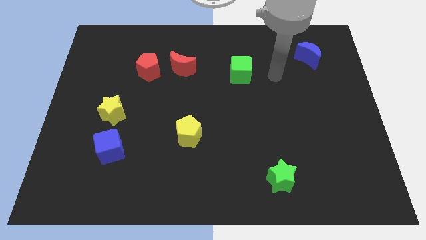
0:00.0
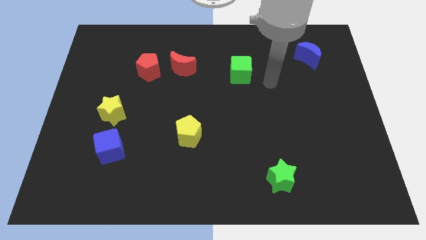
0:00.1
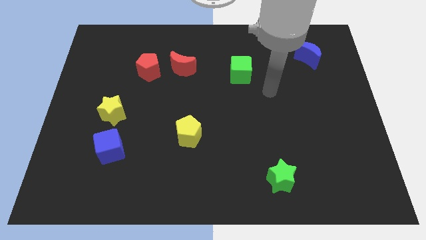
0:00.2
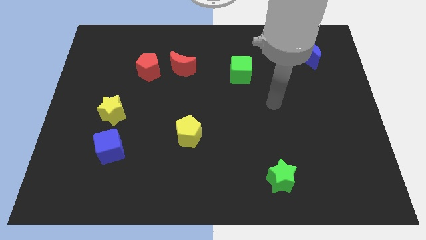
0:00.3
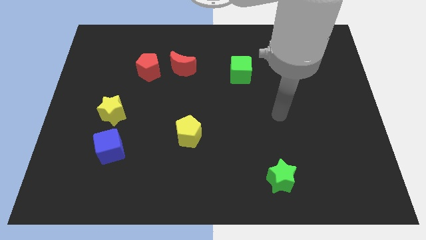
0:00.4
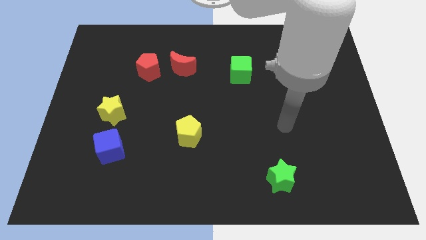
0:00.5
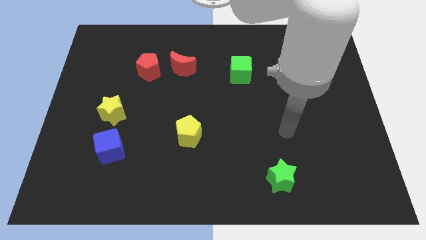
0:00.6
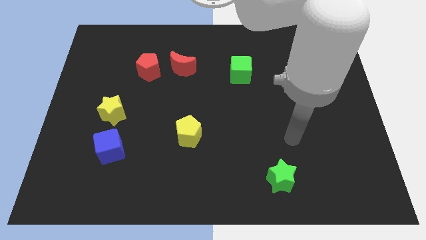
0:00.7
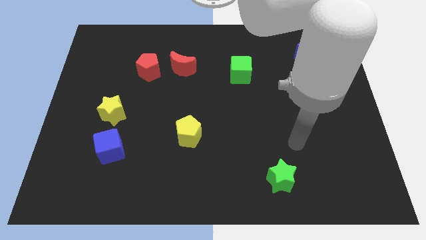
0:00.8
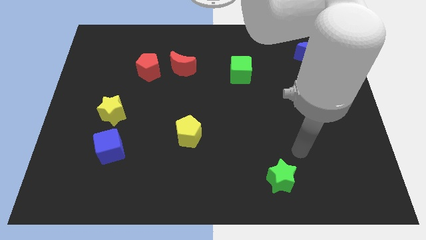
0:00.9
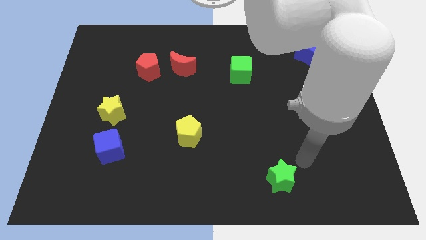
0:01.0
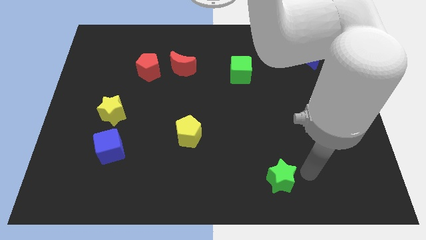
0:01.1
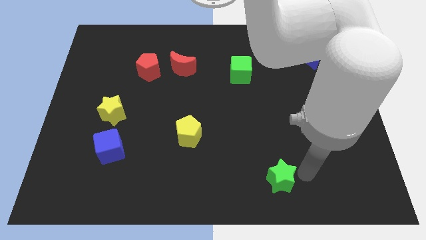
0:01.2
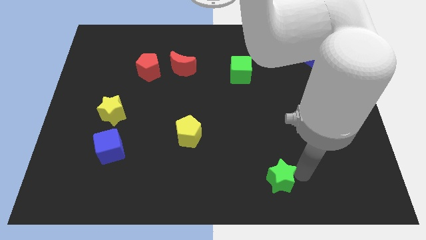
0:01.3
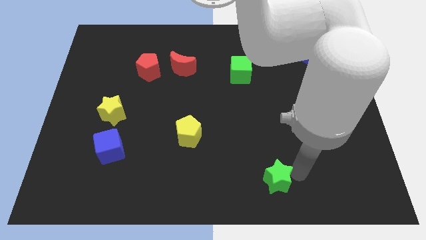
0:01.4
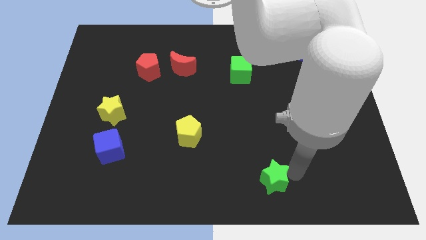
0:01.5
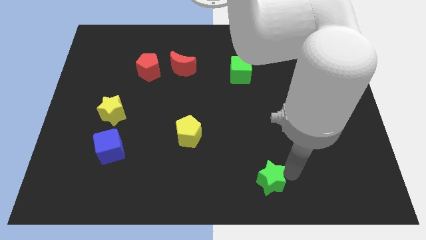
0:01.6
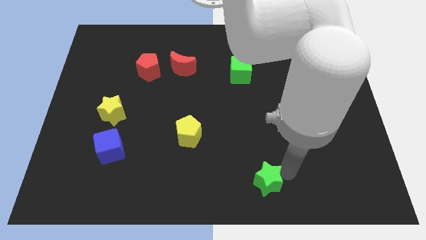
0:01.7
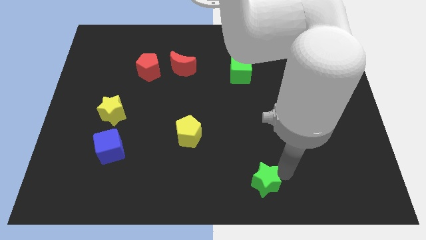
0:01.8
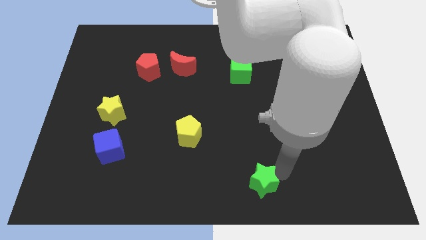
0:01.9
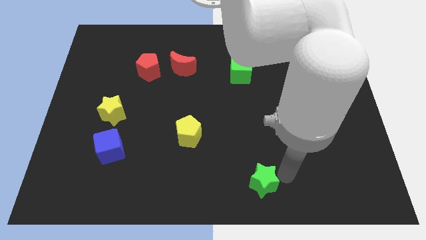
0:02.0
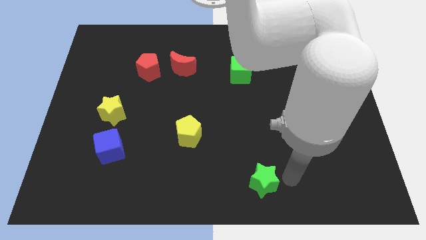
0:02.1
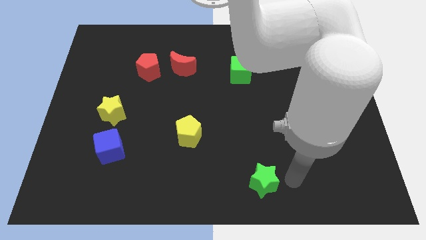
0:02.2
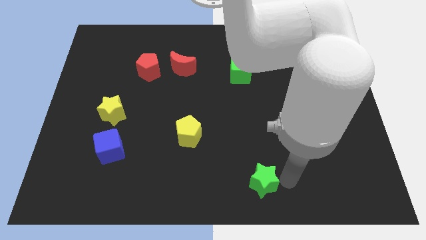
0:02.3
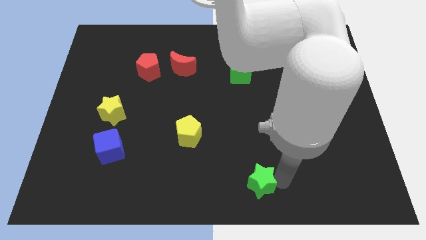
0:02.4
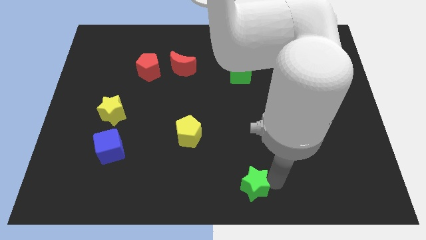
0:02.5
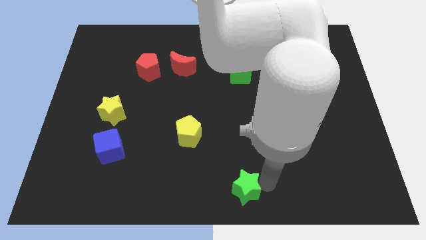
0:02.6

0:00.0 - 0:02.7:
push the green star a bit left

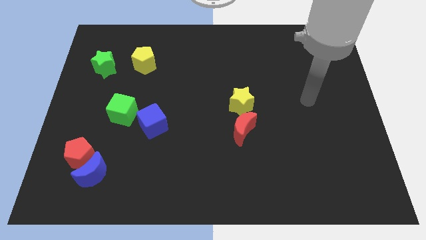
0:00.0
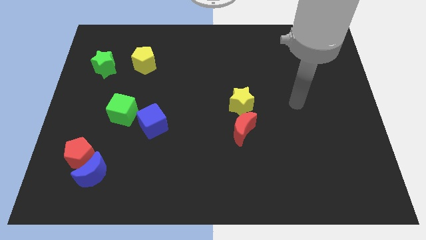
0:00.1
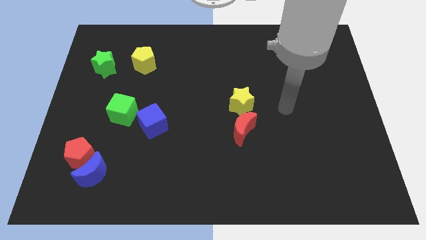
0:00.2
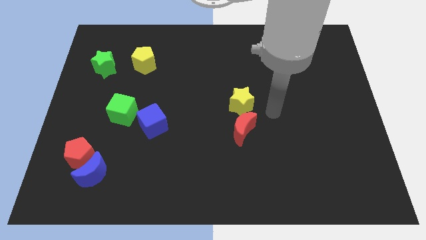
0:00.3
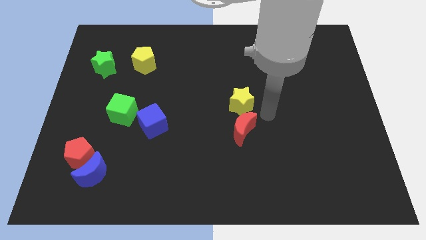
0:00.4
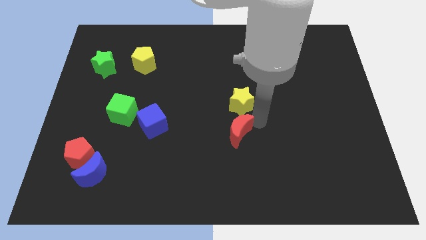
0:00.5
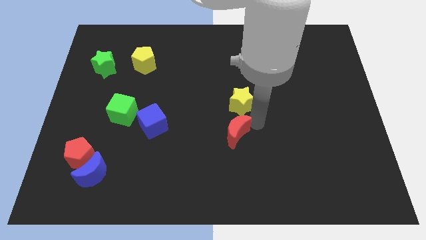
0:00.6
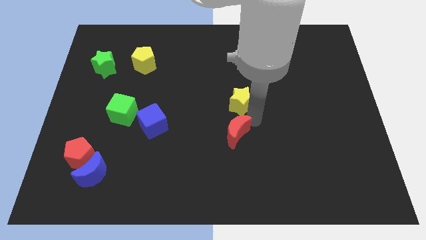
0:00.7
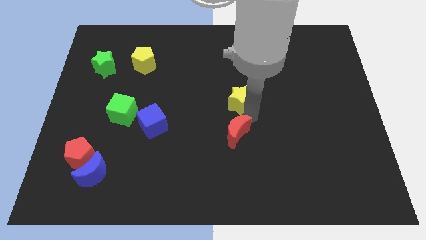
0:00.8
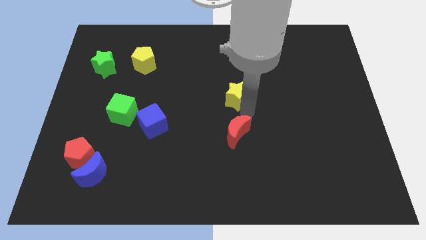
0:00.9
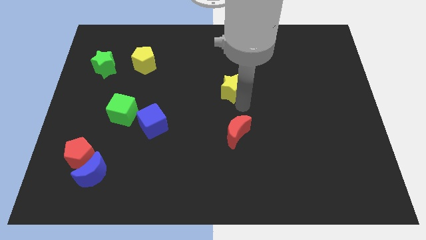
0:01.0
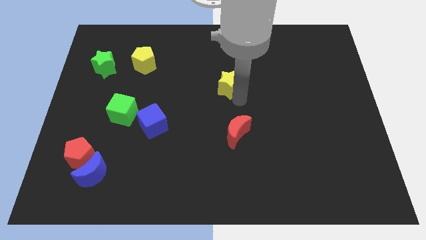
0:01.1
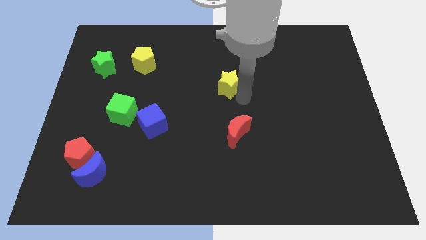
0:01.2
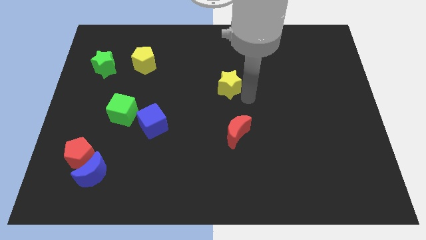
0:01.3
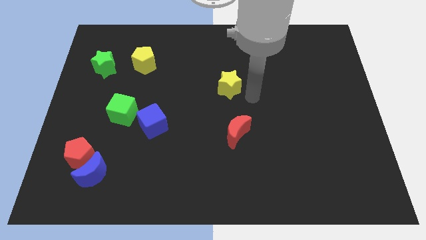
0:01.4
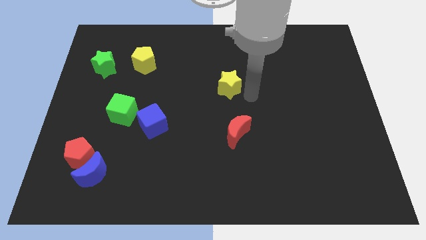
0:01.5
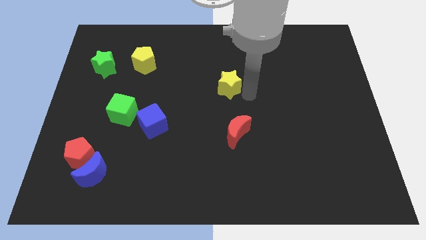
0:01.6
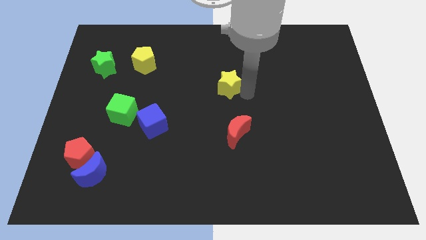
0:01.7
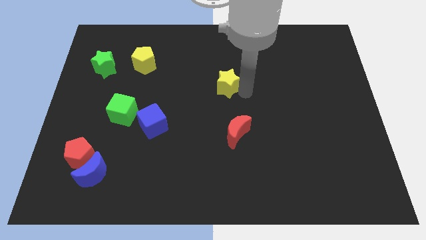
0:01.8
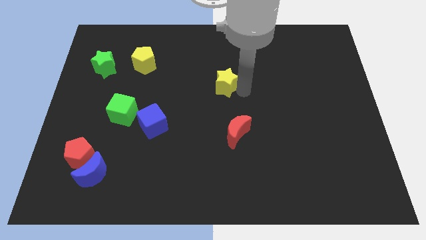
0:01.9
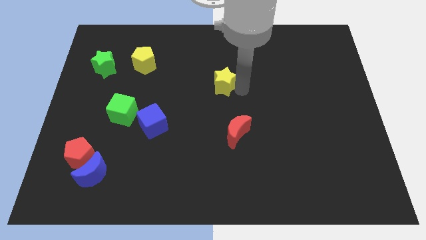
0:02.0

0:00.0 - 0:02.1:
slide the yellow star slightly diagonally upwards and left

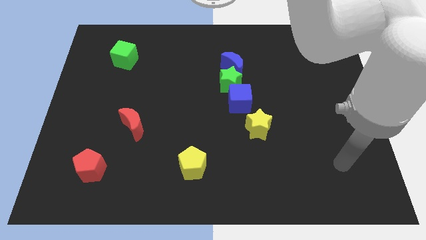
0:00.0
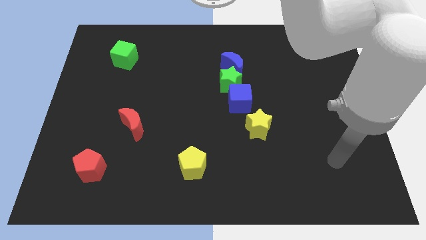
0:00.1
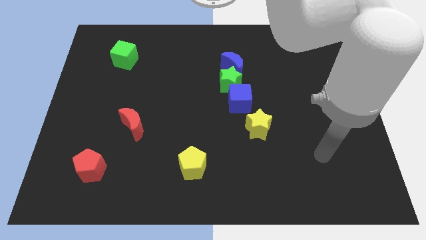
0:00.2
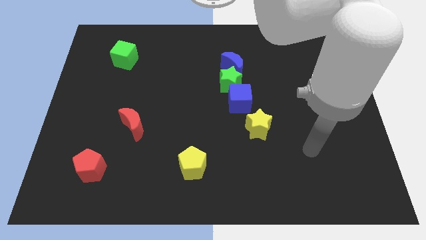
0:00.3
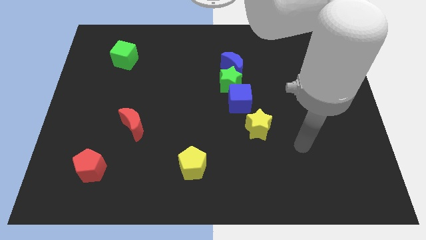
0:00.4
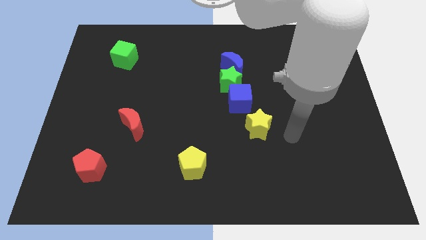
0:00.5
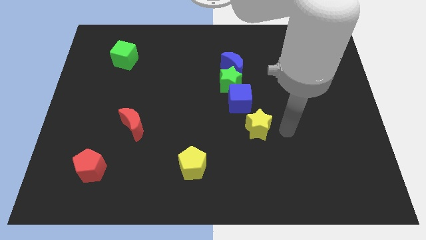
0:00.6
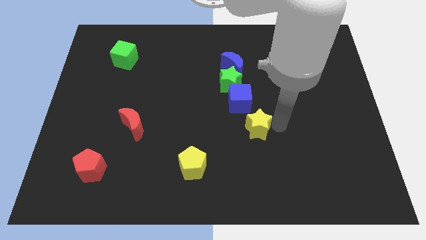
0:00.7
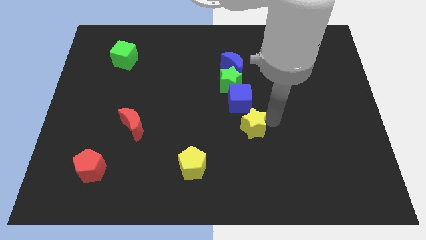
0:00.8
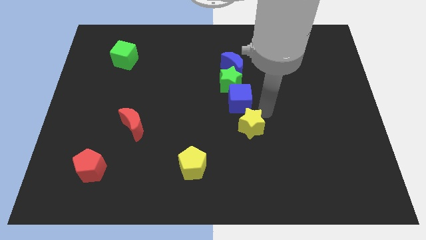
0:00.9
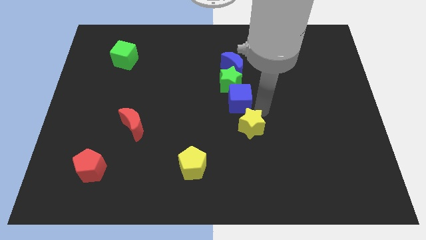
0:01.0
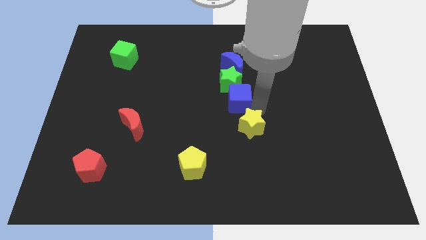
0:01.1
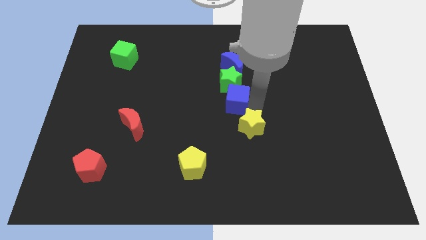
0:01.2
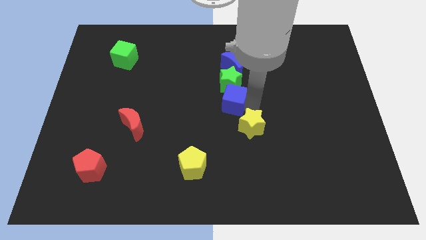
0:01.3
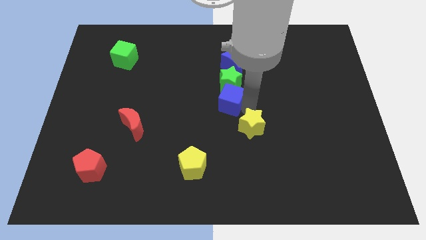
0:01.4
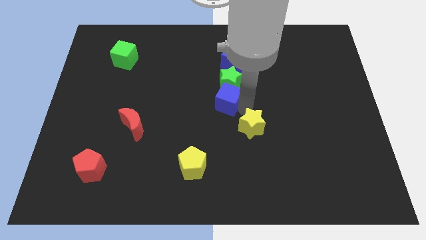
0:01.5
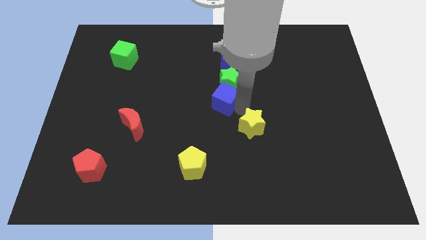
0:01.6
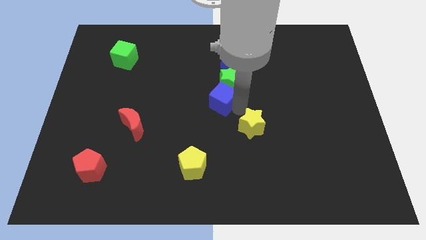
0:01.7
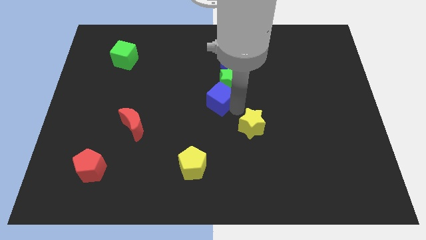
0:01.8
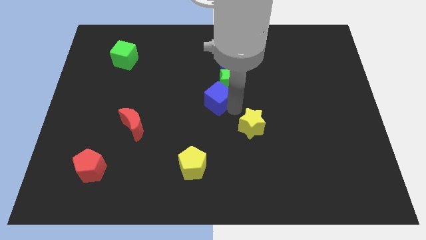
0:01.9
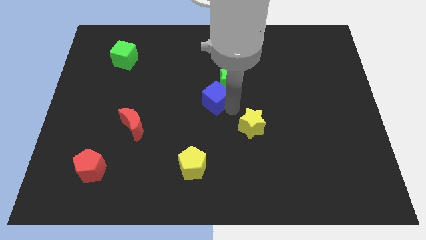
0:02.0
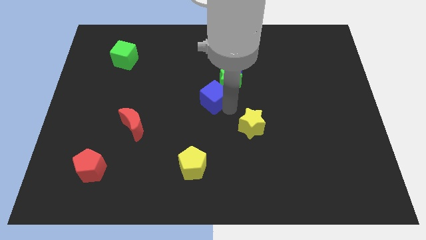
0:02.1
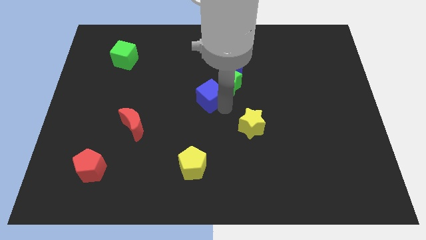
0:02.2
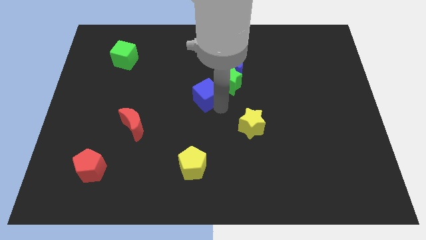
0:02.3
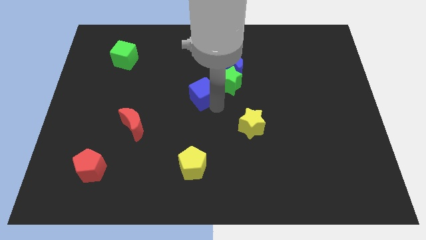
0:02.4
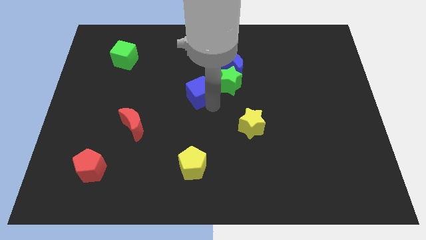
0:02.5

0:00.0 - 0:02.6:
move the blue cube upwards and then to the left somewhat

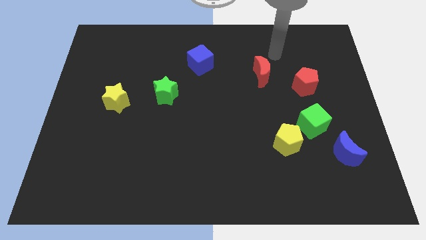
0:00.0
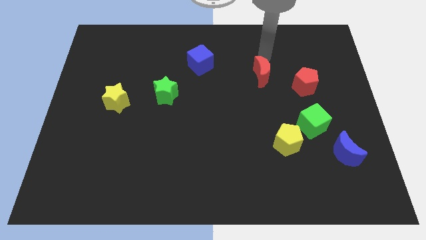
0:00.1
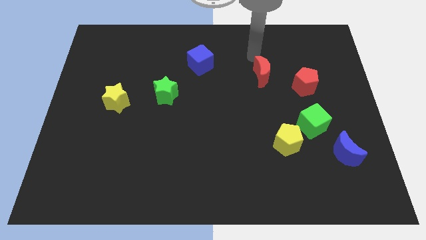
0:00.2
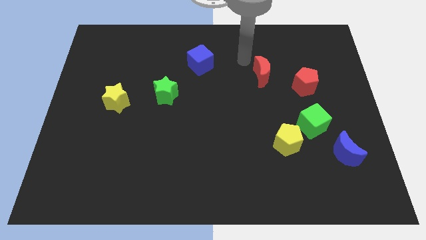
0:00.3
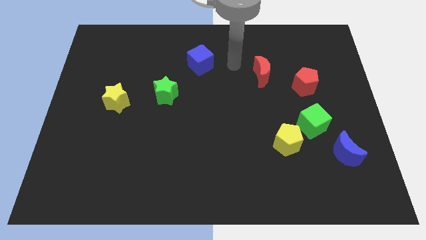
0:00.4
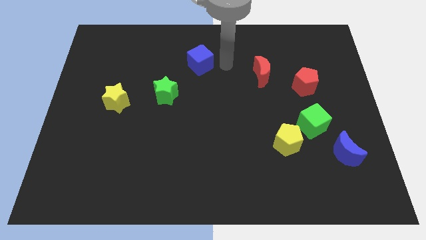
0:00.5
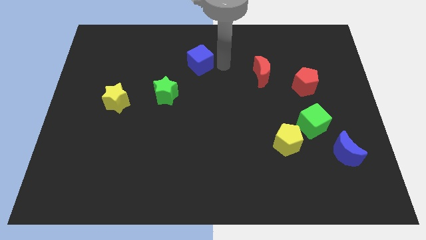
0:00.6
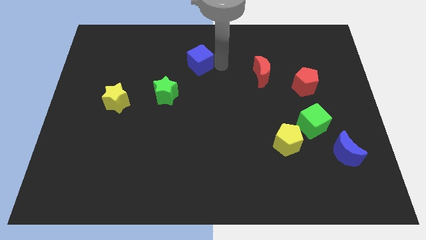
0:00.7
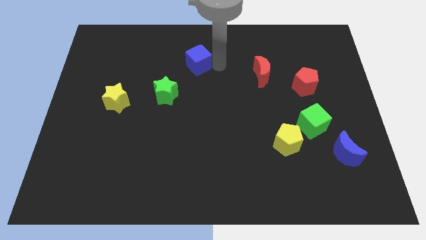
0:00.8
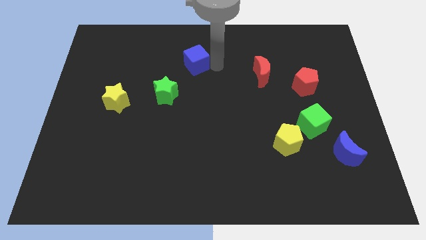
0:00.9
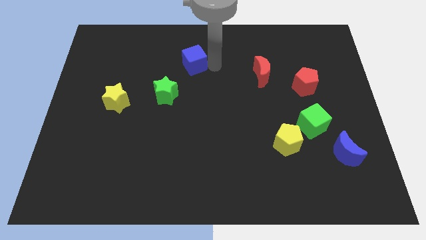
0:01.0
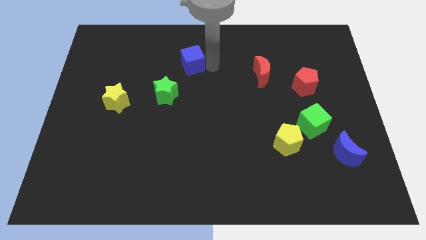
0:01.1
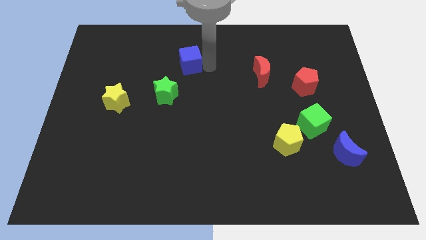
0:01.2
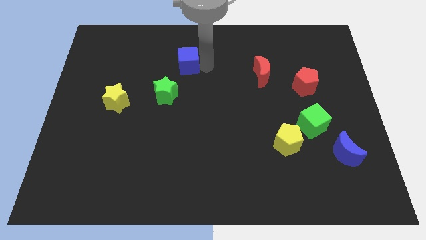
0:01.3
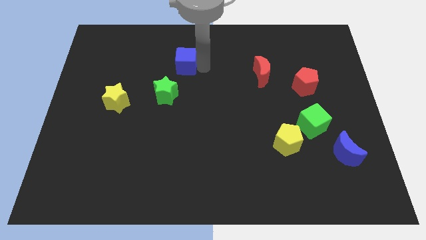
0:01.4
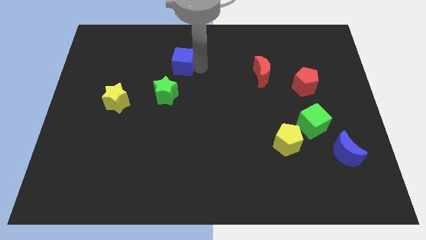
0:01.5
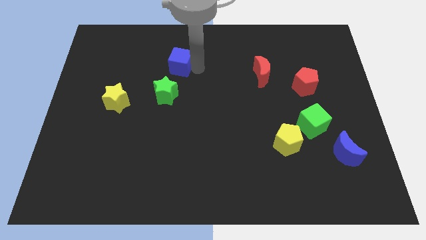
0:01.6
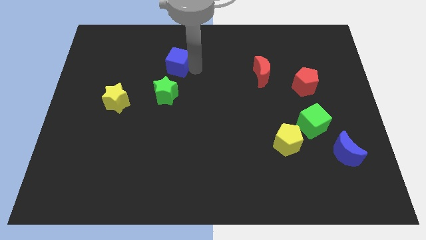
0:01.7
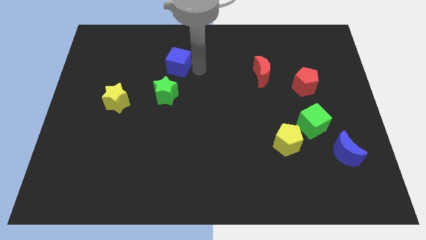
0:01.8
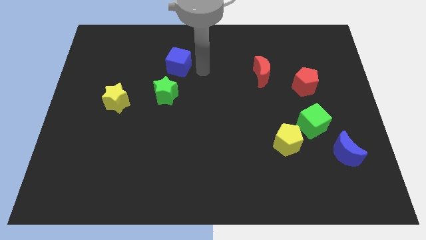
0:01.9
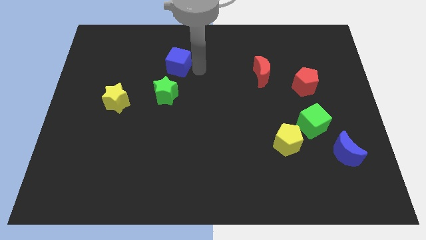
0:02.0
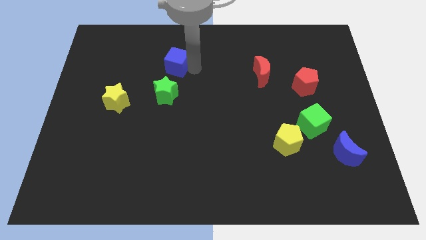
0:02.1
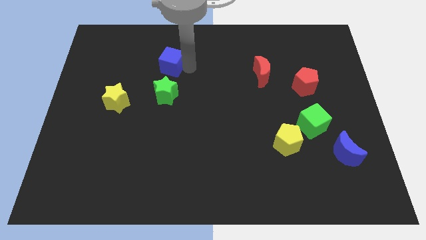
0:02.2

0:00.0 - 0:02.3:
slightly slide the blue cube left
